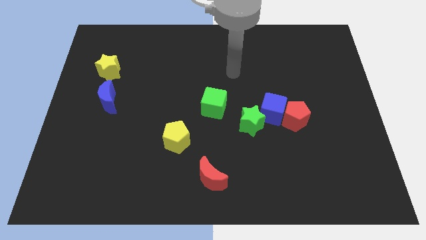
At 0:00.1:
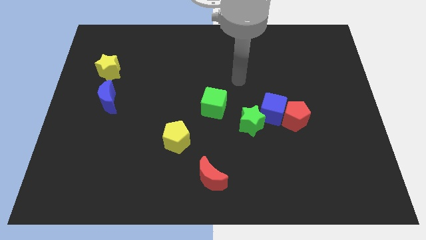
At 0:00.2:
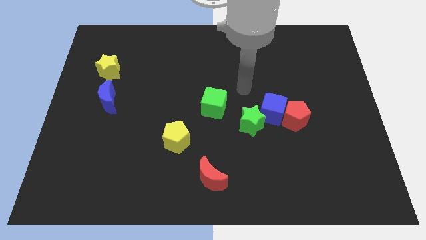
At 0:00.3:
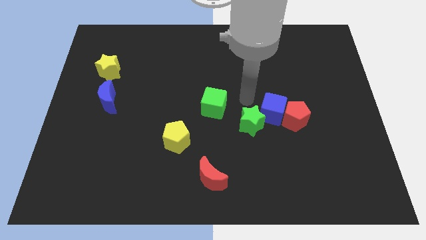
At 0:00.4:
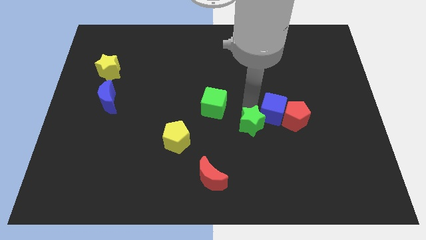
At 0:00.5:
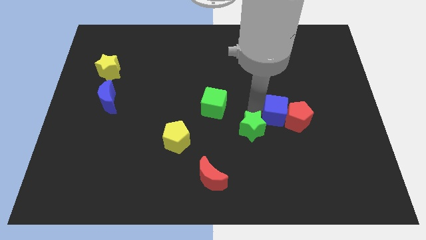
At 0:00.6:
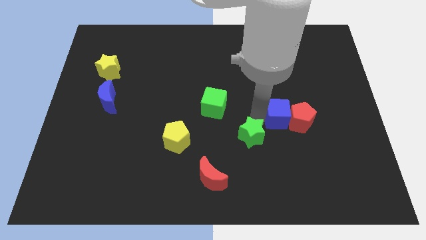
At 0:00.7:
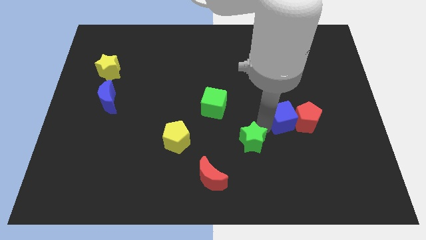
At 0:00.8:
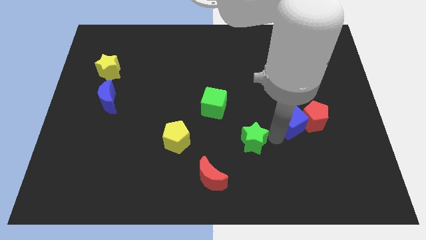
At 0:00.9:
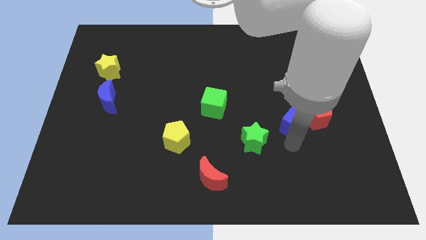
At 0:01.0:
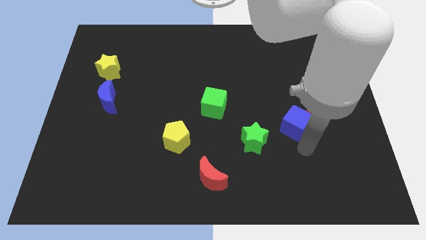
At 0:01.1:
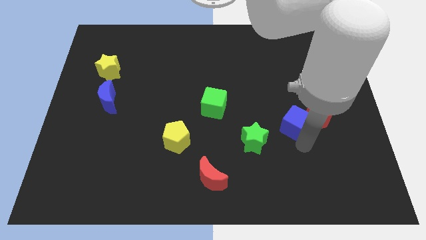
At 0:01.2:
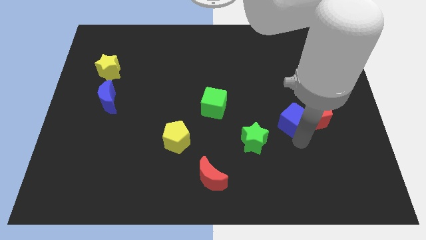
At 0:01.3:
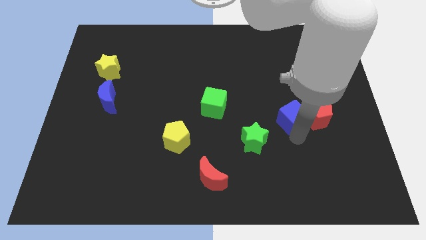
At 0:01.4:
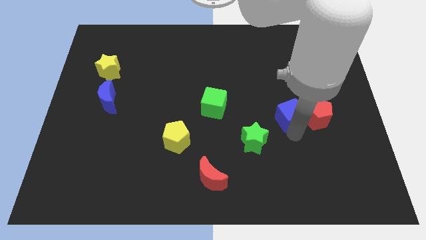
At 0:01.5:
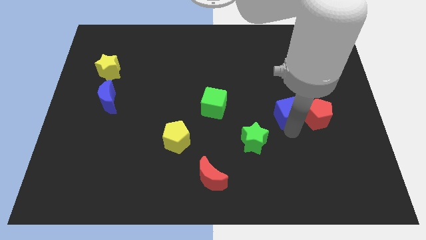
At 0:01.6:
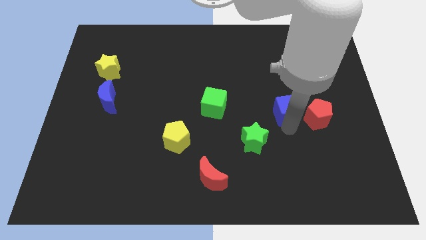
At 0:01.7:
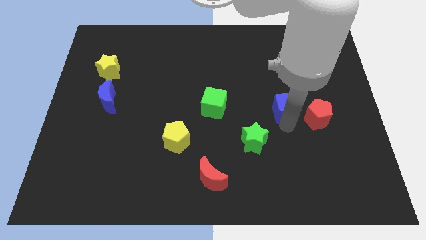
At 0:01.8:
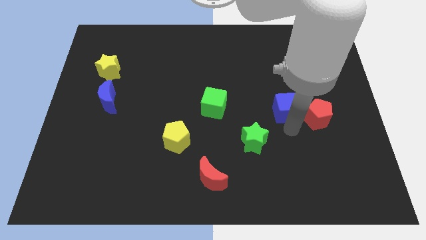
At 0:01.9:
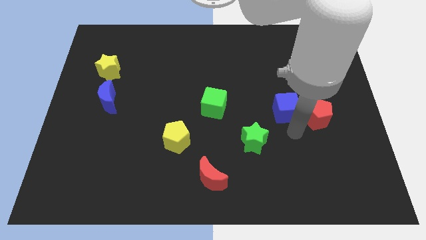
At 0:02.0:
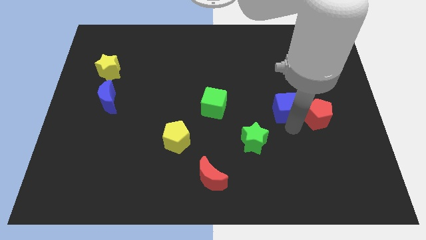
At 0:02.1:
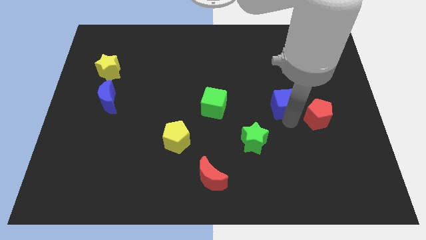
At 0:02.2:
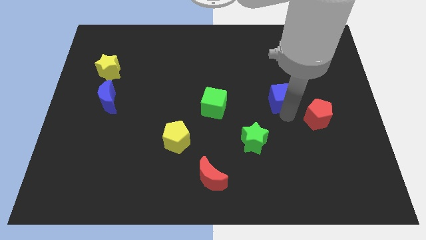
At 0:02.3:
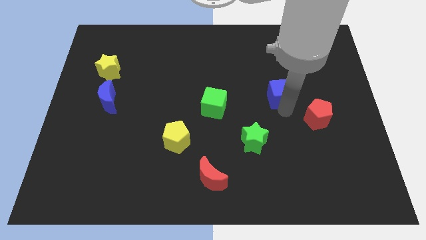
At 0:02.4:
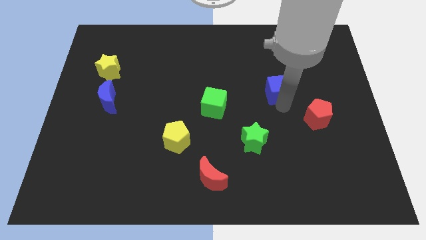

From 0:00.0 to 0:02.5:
move the blue cube away from the red pentagon and green star

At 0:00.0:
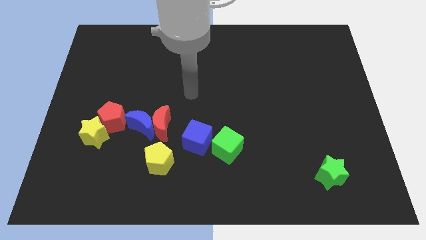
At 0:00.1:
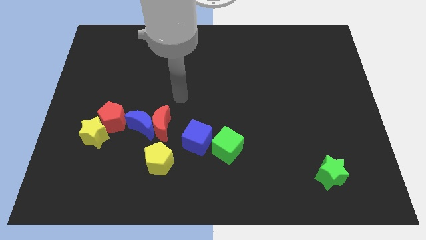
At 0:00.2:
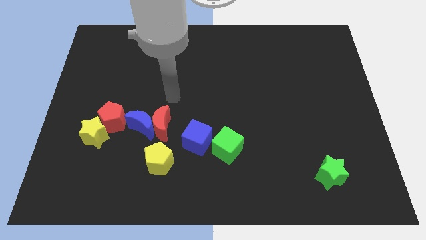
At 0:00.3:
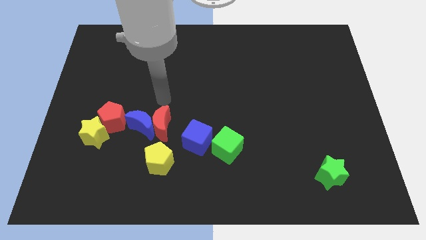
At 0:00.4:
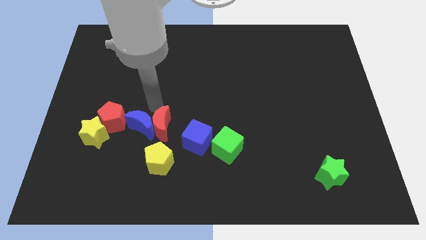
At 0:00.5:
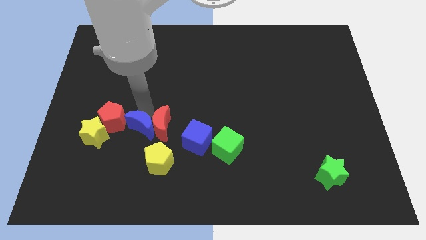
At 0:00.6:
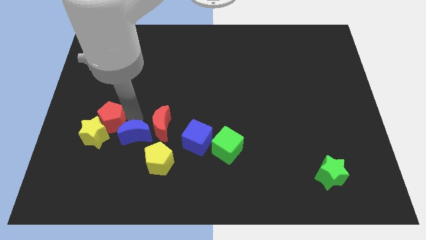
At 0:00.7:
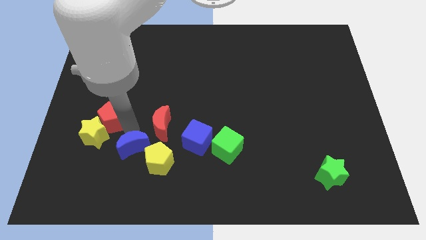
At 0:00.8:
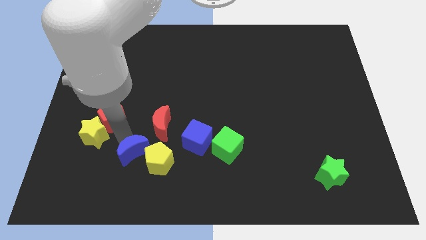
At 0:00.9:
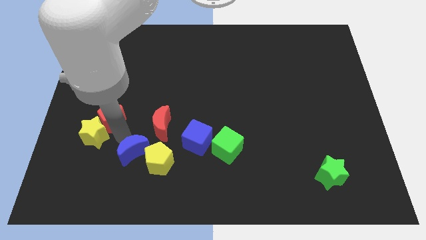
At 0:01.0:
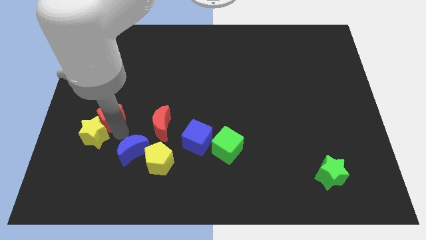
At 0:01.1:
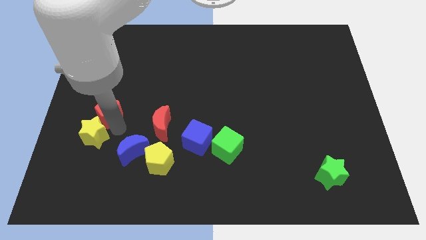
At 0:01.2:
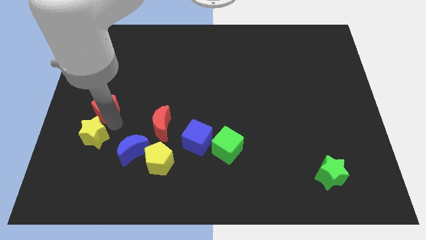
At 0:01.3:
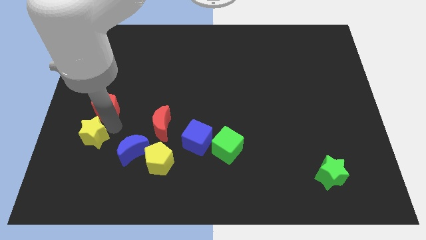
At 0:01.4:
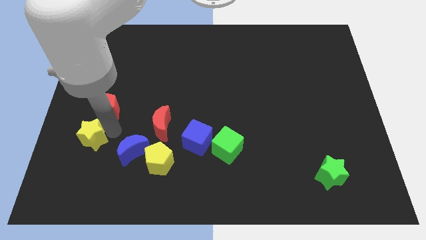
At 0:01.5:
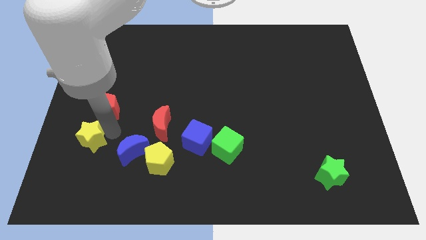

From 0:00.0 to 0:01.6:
move the red pentagon away from the yellow star and blue moon

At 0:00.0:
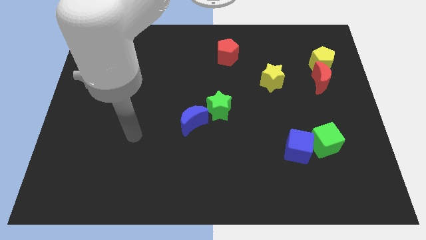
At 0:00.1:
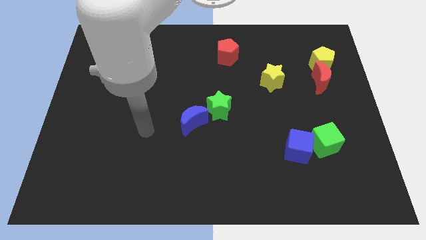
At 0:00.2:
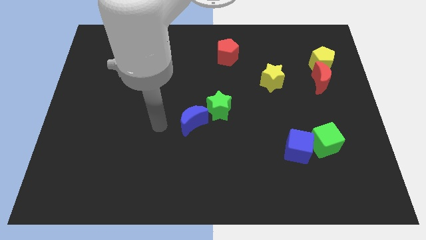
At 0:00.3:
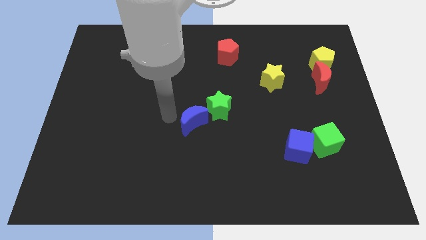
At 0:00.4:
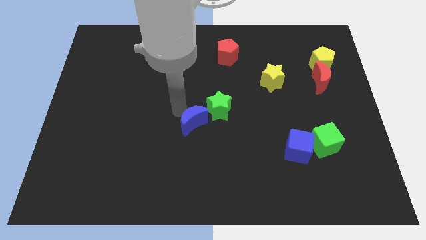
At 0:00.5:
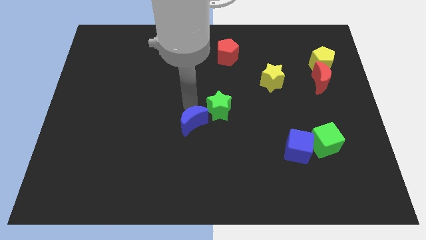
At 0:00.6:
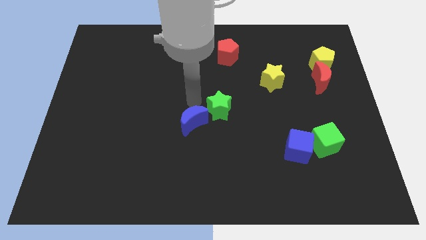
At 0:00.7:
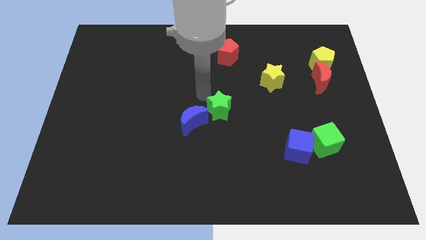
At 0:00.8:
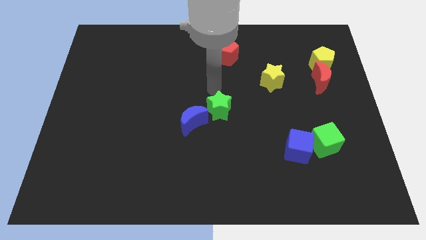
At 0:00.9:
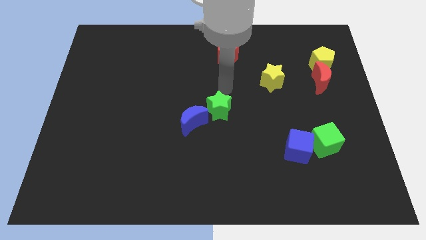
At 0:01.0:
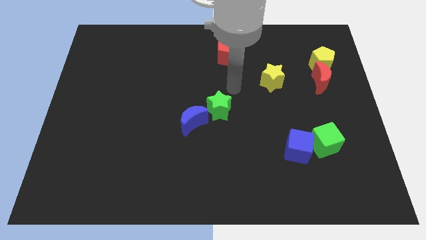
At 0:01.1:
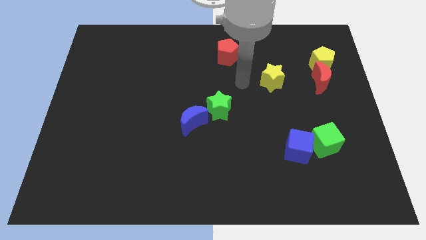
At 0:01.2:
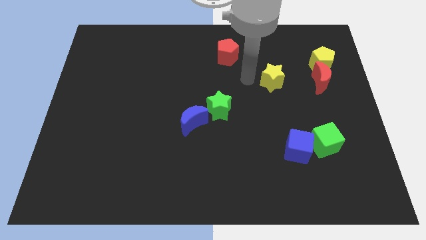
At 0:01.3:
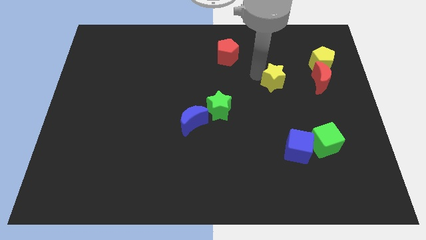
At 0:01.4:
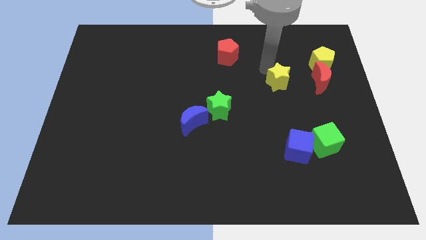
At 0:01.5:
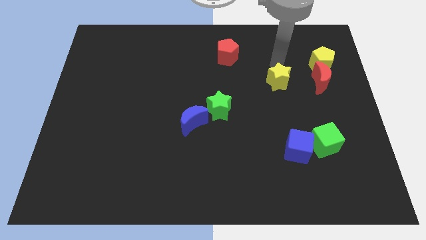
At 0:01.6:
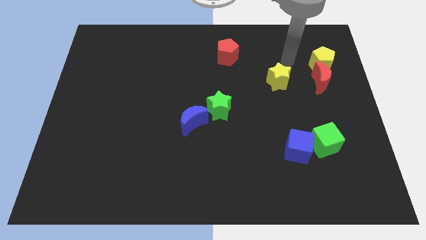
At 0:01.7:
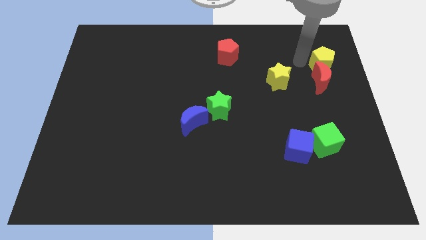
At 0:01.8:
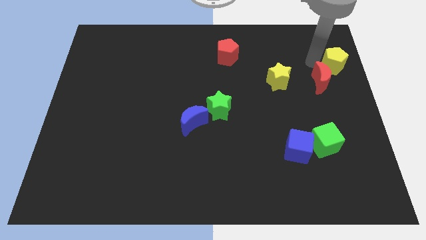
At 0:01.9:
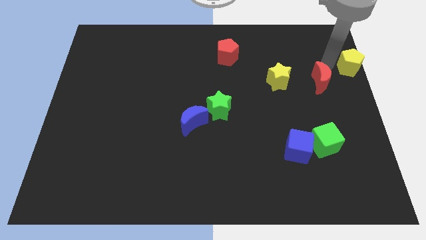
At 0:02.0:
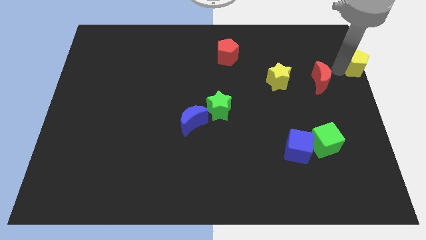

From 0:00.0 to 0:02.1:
separate the red moon from the yellow pentagon

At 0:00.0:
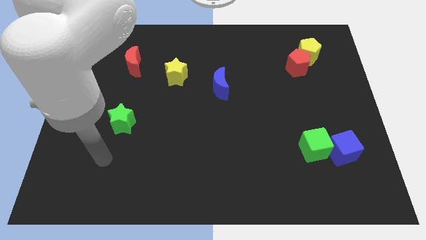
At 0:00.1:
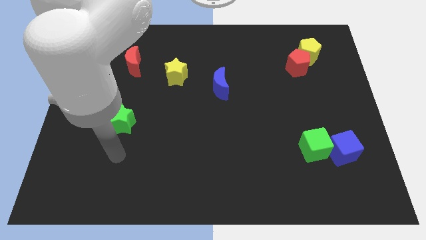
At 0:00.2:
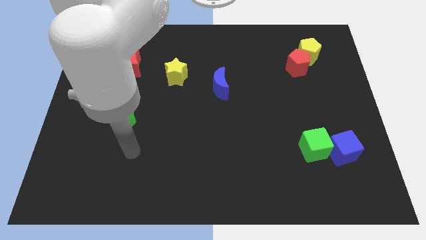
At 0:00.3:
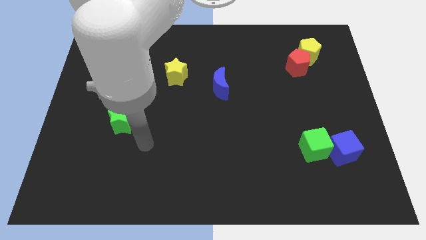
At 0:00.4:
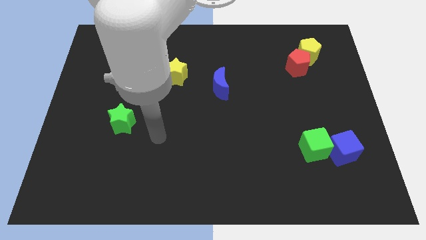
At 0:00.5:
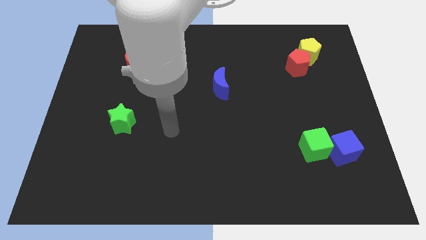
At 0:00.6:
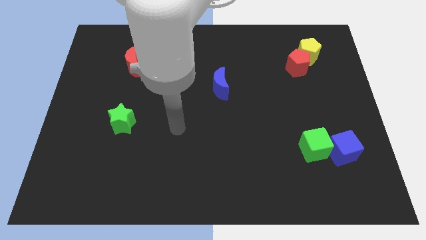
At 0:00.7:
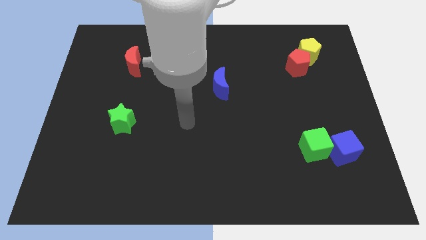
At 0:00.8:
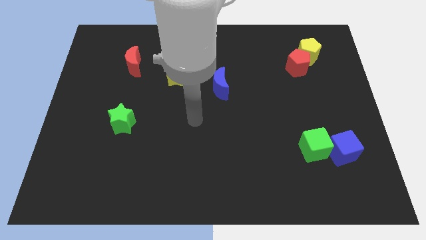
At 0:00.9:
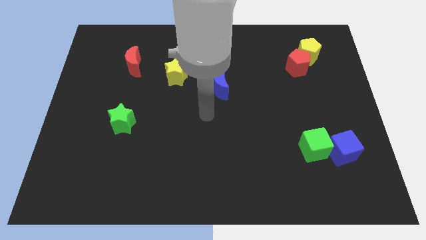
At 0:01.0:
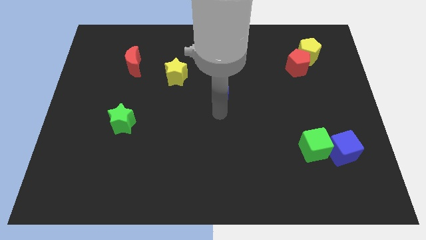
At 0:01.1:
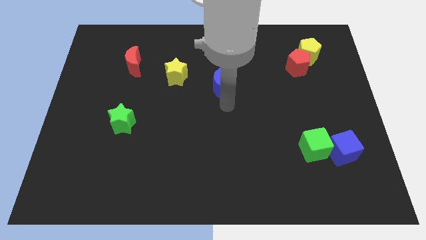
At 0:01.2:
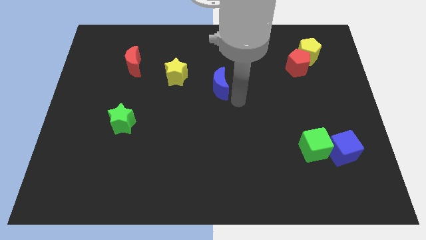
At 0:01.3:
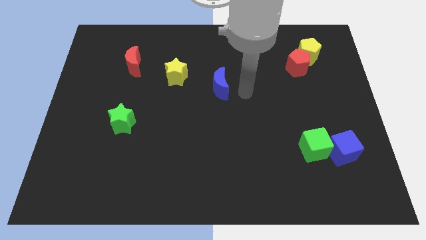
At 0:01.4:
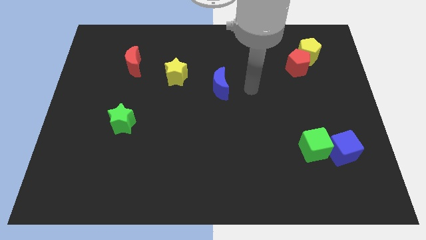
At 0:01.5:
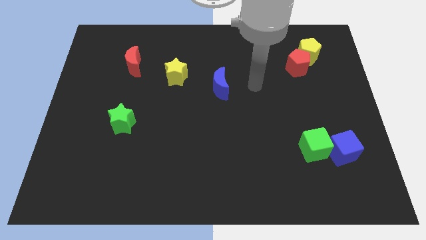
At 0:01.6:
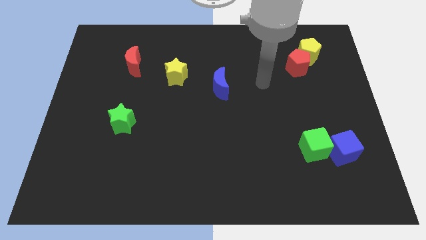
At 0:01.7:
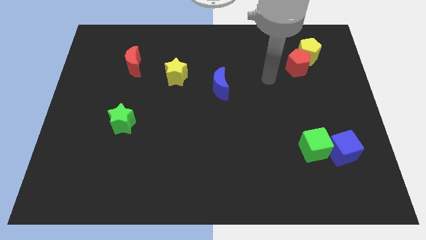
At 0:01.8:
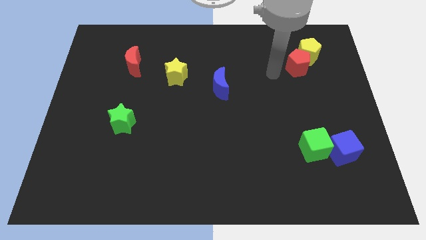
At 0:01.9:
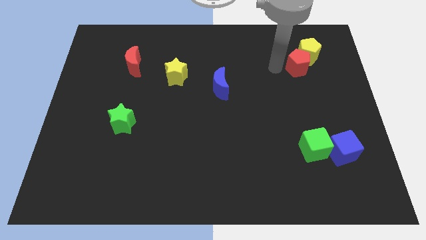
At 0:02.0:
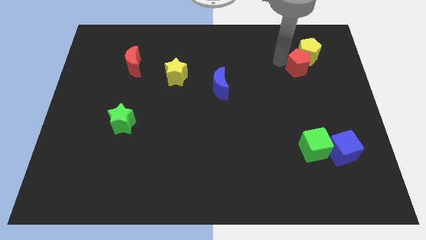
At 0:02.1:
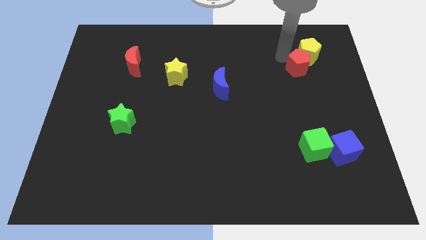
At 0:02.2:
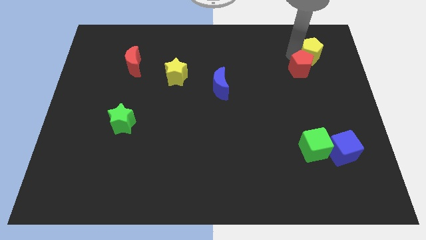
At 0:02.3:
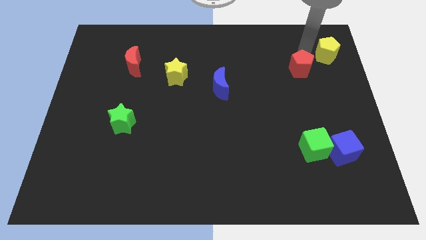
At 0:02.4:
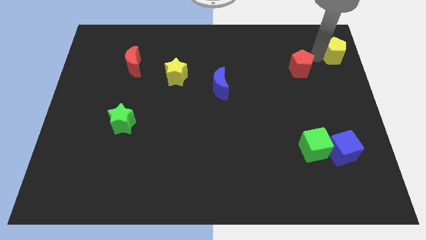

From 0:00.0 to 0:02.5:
separate the red pentagon from the yellow pentagon

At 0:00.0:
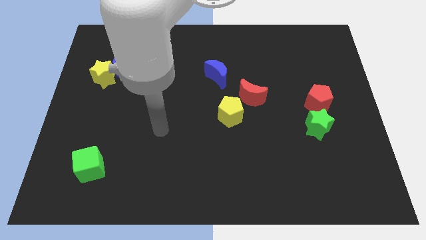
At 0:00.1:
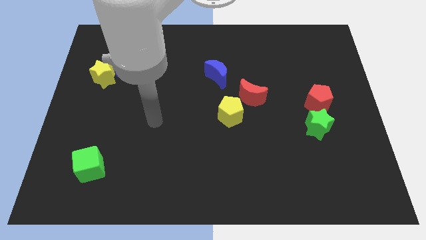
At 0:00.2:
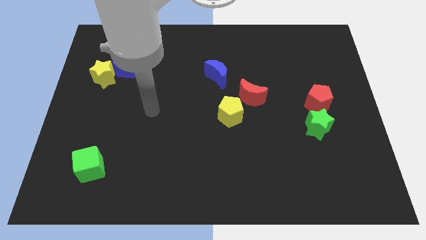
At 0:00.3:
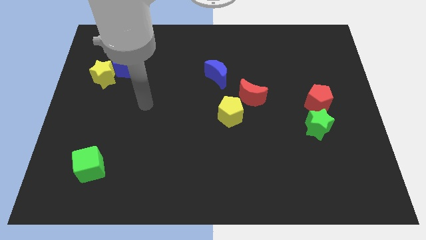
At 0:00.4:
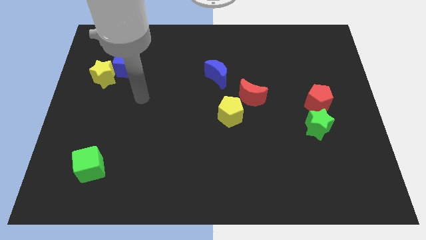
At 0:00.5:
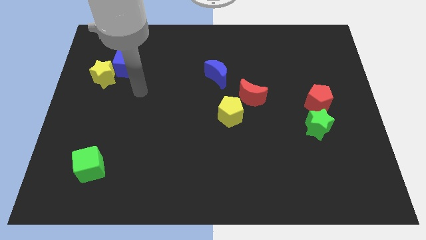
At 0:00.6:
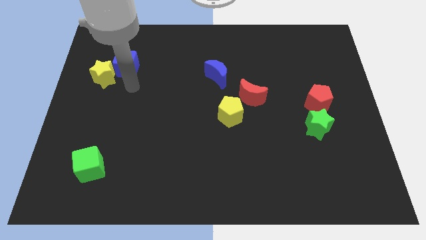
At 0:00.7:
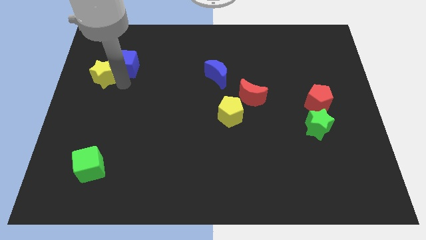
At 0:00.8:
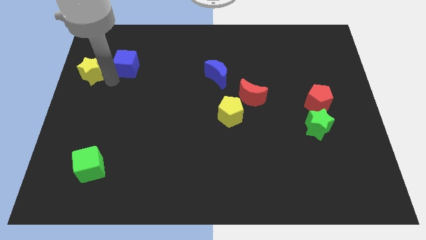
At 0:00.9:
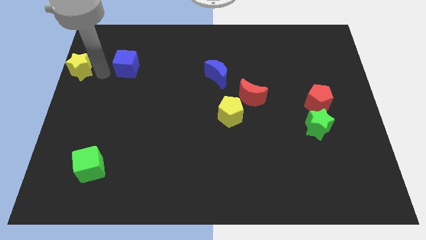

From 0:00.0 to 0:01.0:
move the blue cube away from the yellow star
